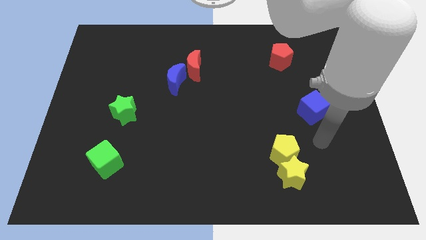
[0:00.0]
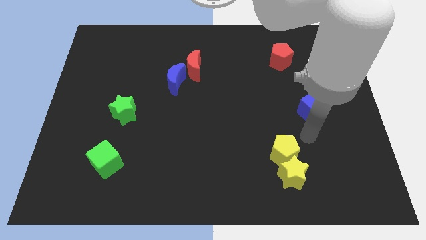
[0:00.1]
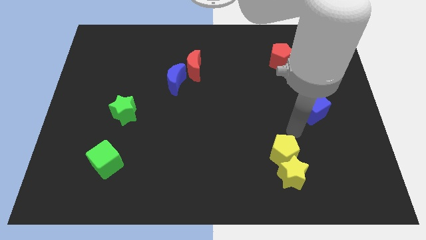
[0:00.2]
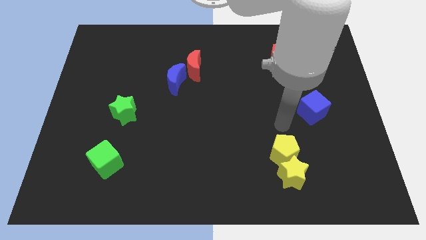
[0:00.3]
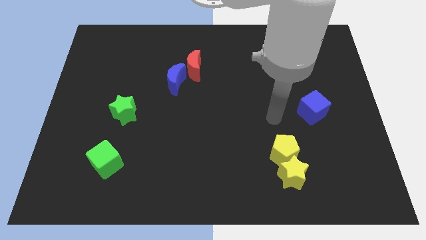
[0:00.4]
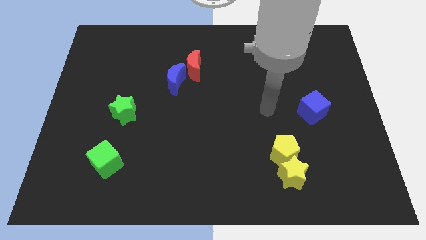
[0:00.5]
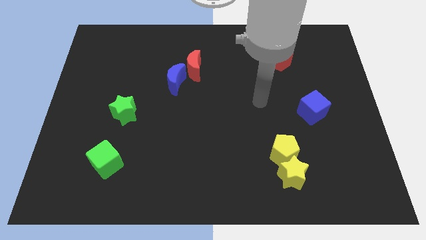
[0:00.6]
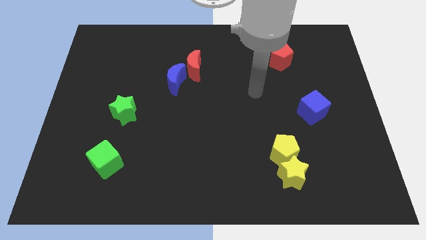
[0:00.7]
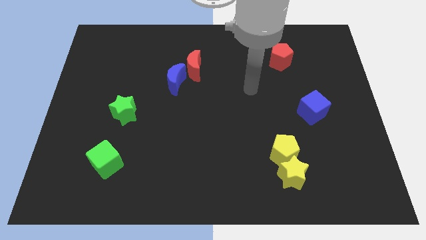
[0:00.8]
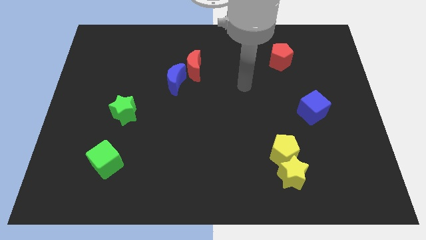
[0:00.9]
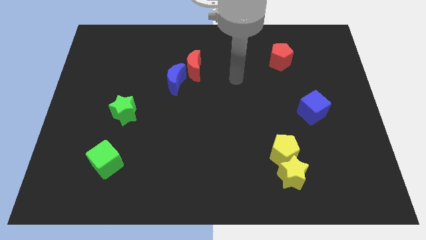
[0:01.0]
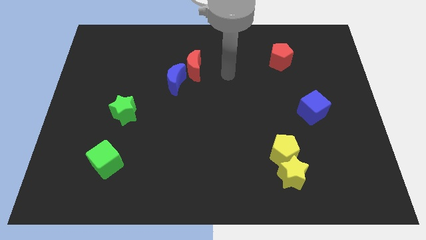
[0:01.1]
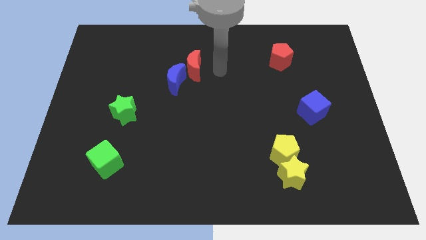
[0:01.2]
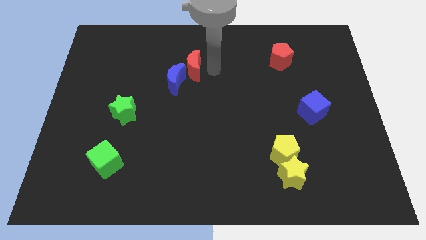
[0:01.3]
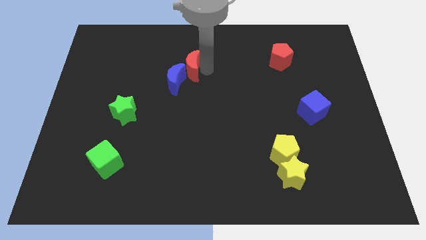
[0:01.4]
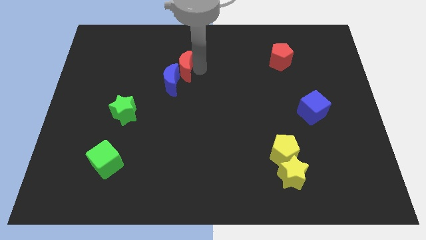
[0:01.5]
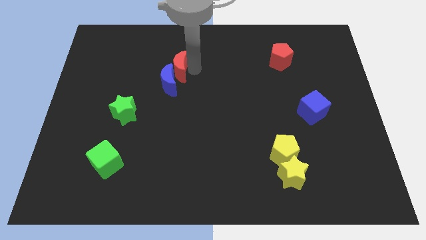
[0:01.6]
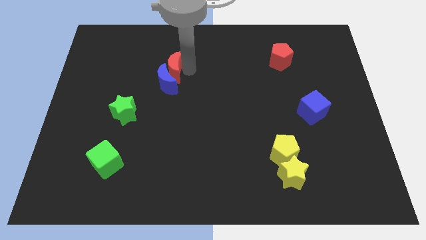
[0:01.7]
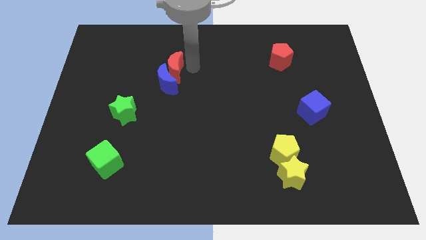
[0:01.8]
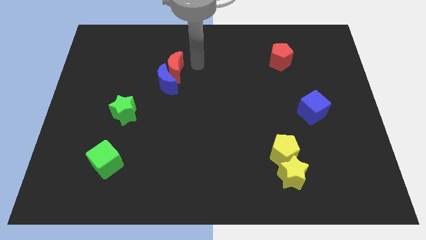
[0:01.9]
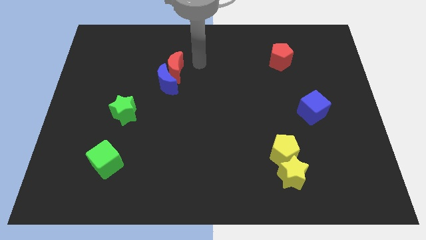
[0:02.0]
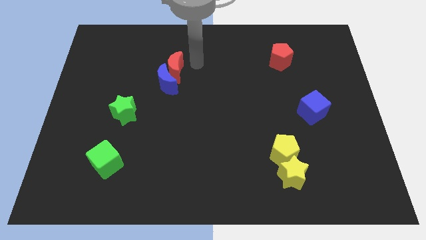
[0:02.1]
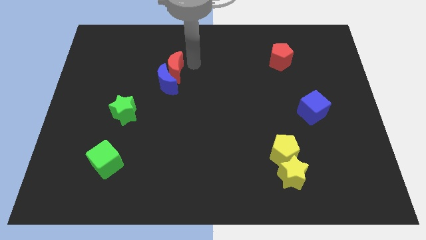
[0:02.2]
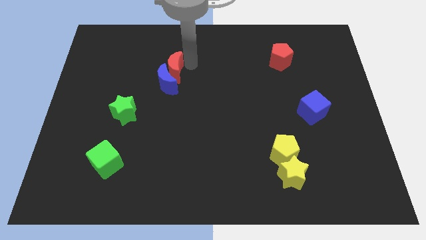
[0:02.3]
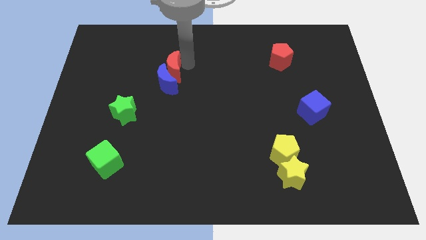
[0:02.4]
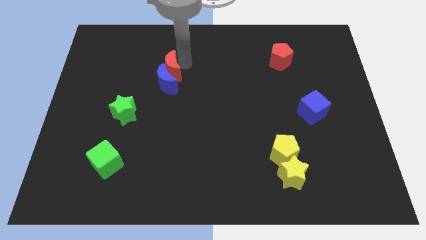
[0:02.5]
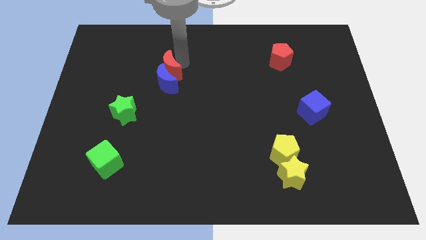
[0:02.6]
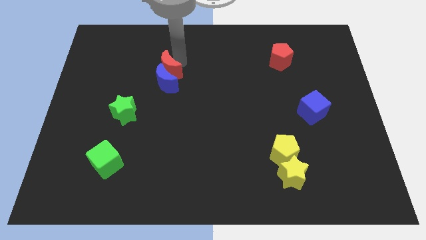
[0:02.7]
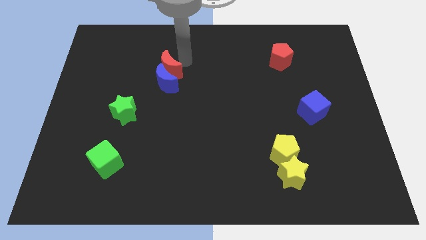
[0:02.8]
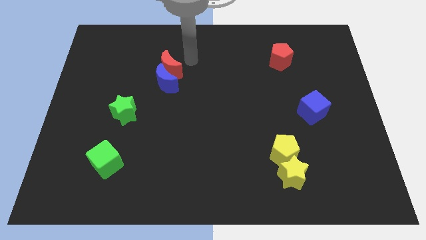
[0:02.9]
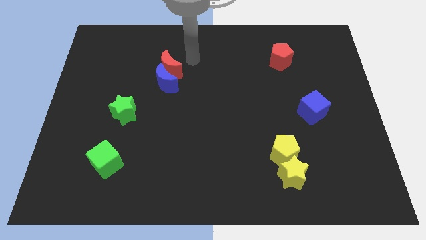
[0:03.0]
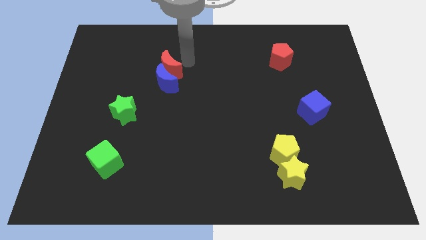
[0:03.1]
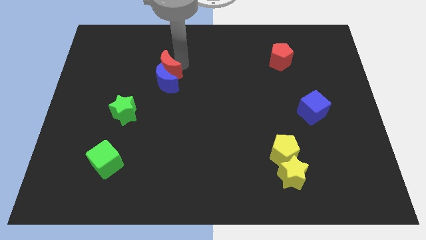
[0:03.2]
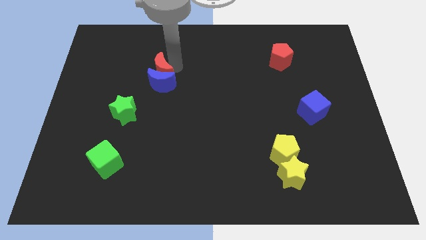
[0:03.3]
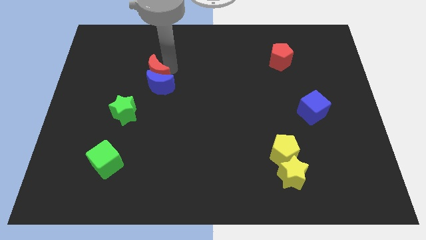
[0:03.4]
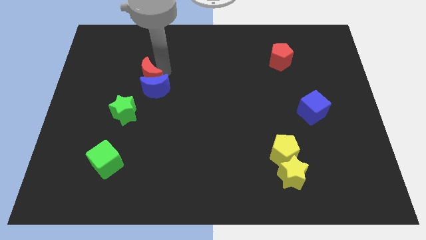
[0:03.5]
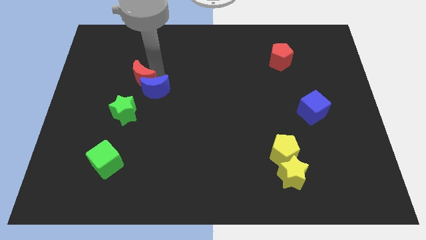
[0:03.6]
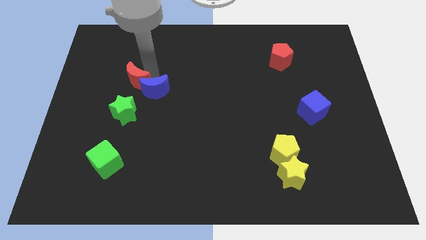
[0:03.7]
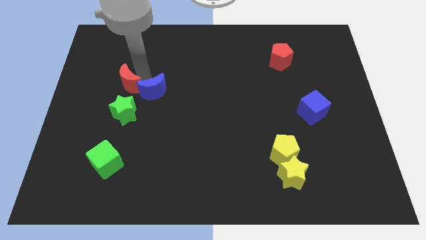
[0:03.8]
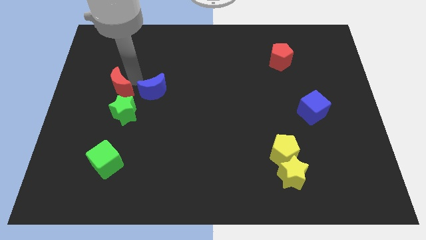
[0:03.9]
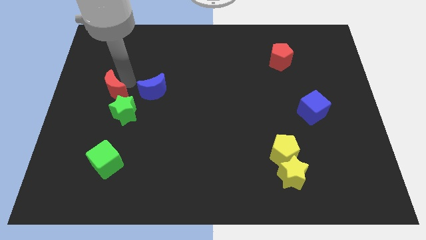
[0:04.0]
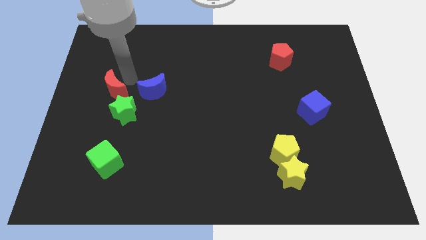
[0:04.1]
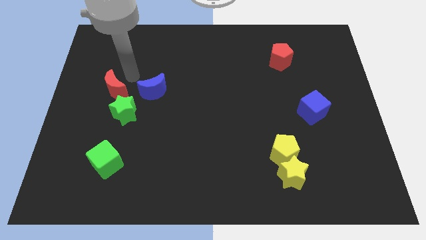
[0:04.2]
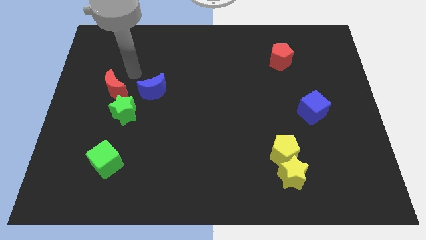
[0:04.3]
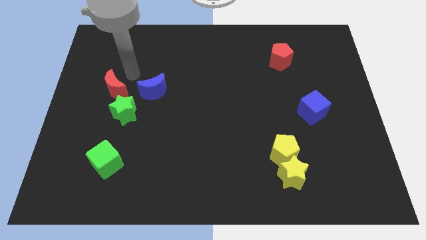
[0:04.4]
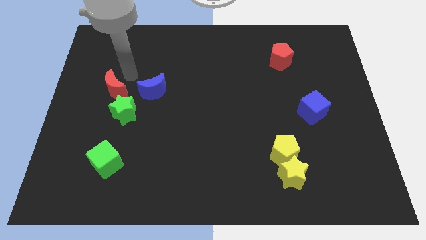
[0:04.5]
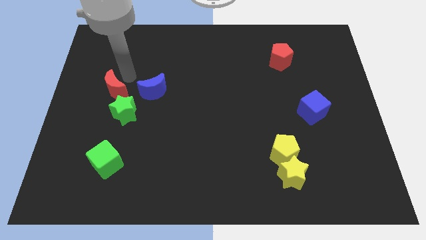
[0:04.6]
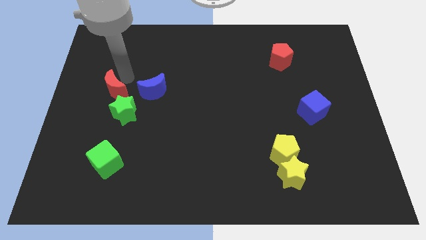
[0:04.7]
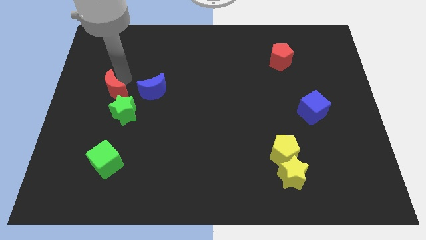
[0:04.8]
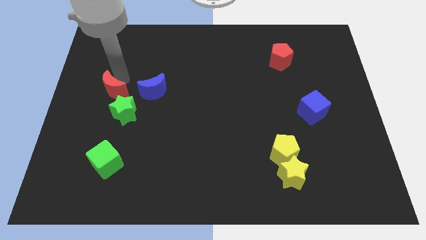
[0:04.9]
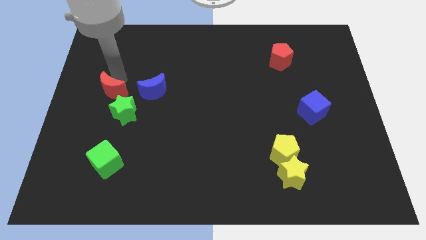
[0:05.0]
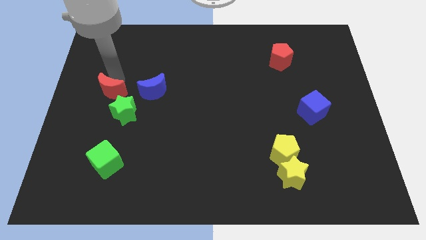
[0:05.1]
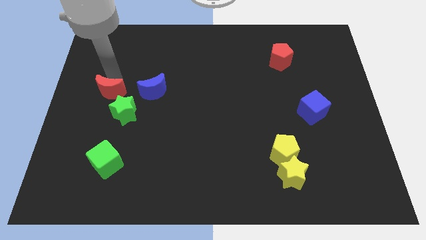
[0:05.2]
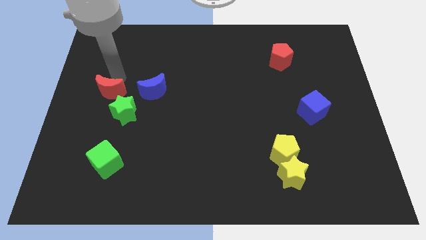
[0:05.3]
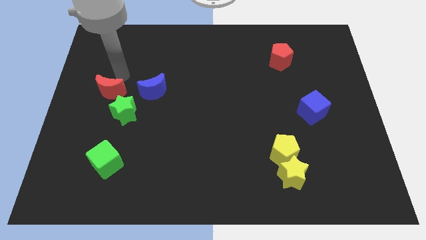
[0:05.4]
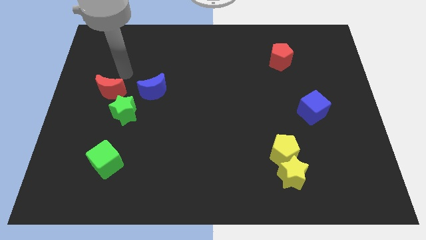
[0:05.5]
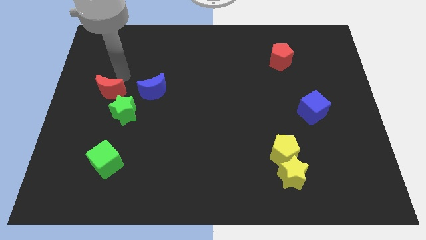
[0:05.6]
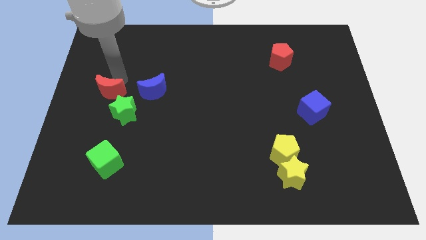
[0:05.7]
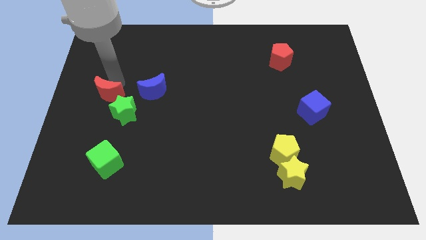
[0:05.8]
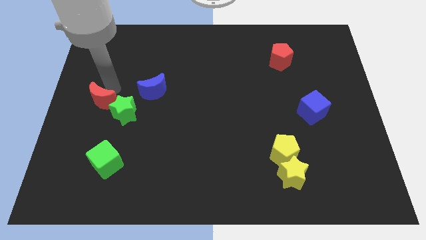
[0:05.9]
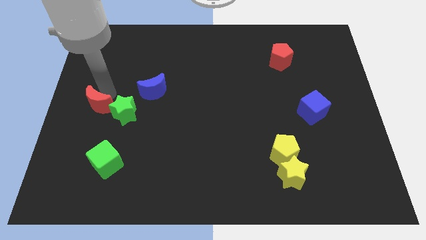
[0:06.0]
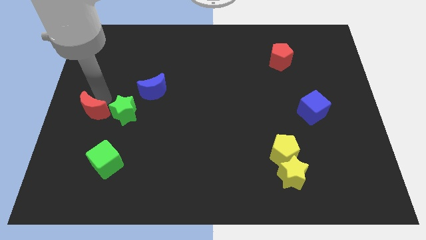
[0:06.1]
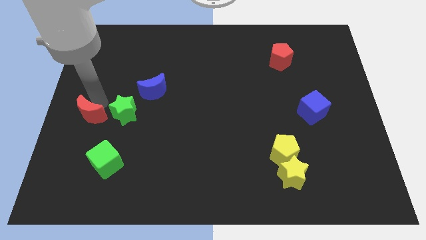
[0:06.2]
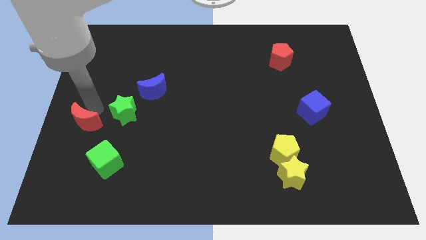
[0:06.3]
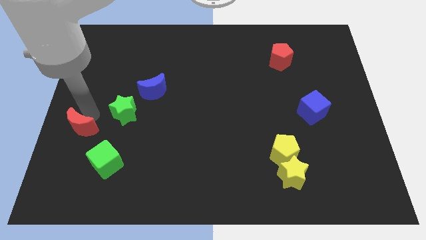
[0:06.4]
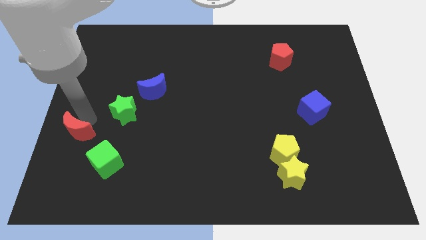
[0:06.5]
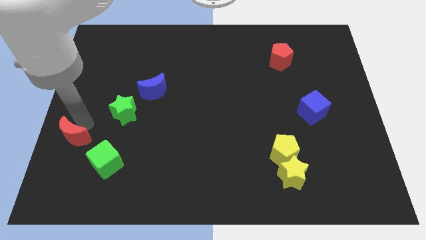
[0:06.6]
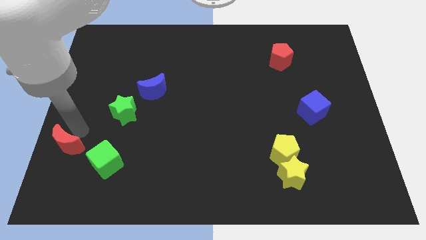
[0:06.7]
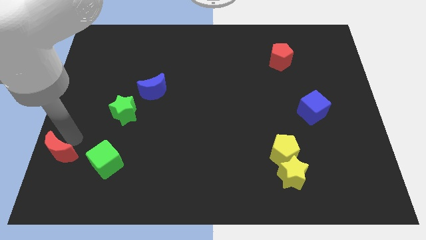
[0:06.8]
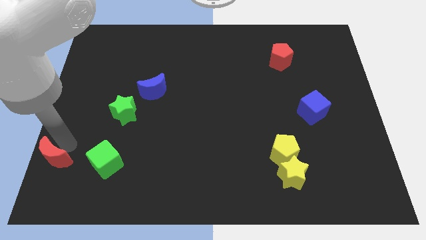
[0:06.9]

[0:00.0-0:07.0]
push the red moon to the bottom left

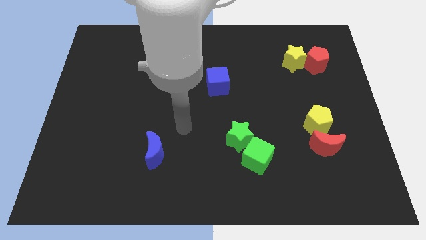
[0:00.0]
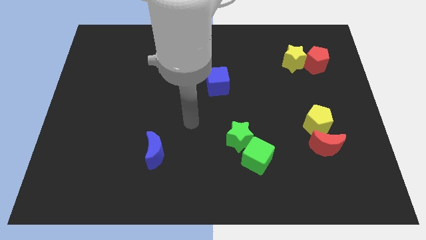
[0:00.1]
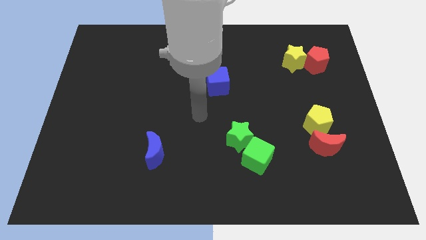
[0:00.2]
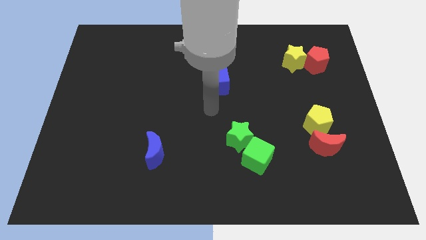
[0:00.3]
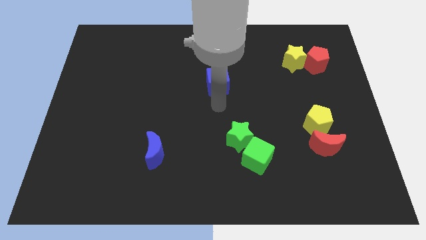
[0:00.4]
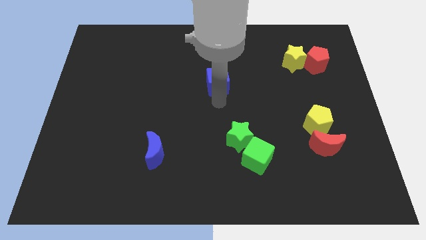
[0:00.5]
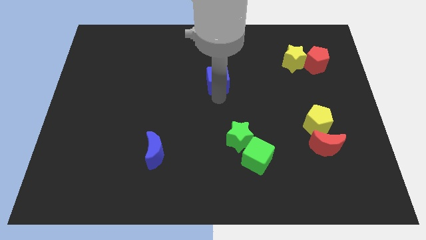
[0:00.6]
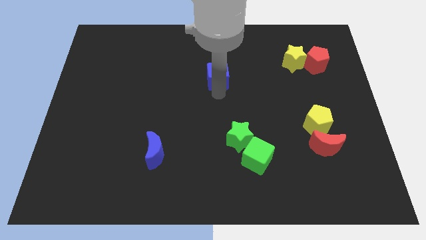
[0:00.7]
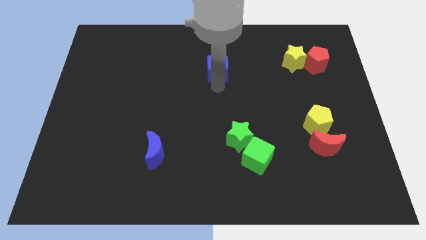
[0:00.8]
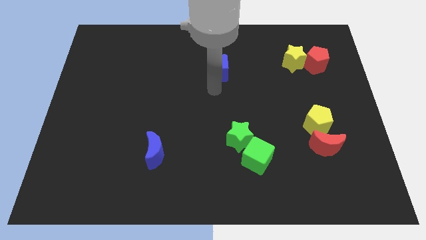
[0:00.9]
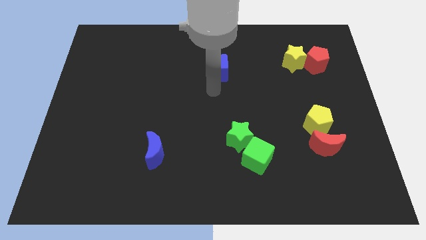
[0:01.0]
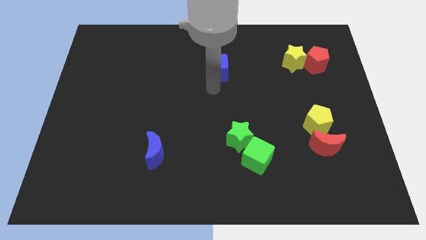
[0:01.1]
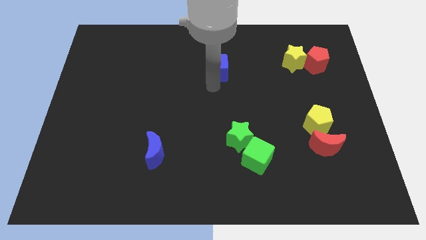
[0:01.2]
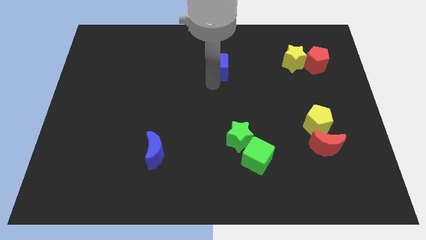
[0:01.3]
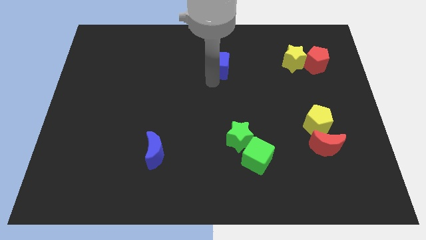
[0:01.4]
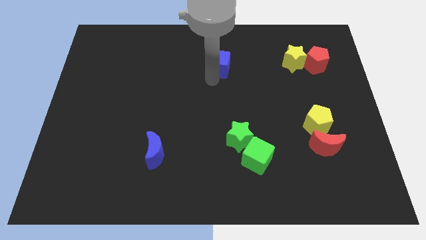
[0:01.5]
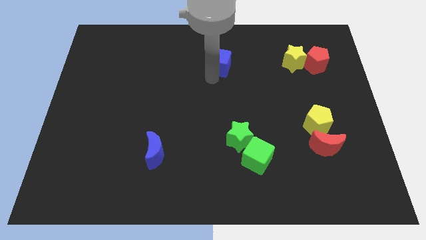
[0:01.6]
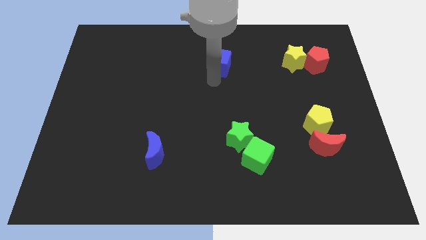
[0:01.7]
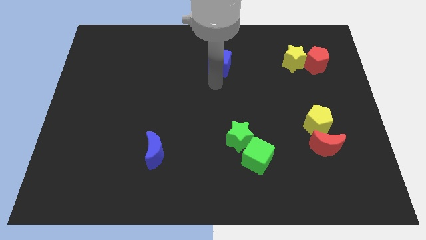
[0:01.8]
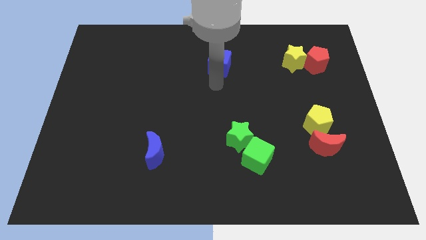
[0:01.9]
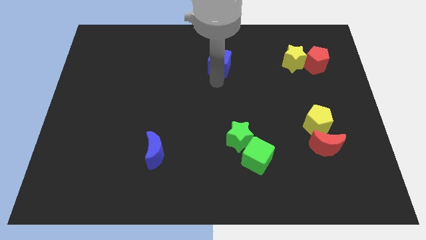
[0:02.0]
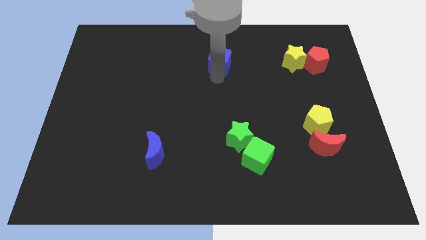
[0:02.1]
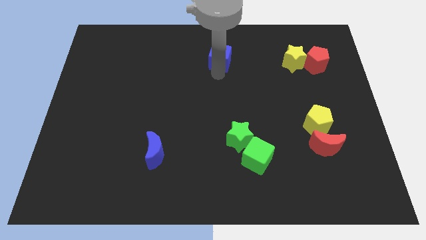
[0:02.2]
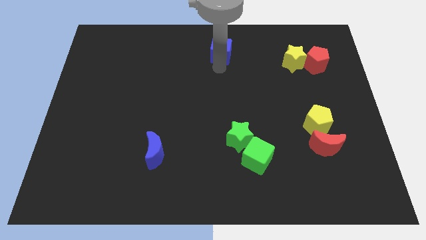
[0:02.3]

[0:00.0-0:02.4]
slide the blue cube to the top side
